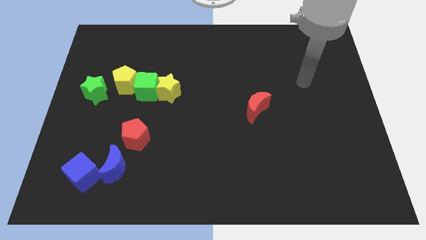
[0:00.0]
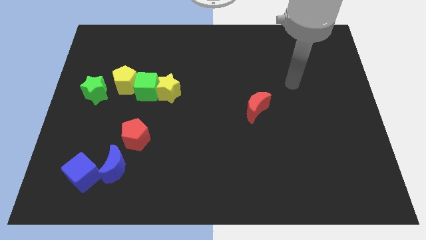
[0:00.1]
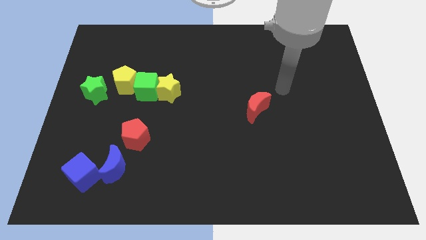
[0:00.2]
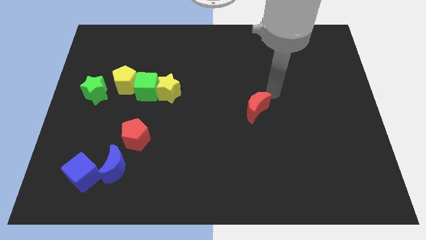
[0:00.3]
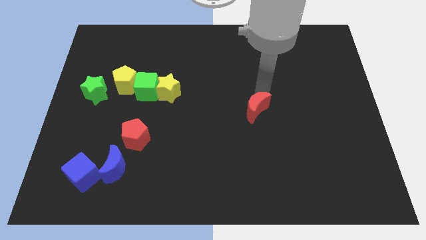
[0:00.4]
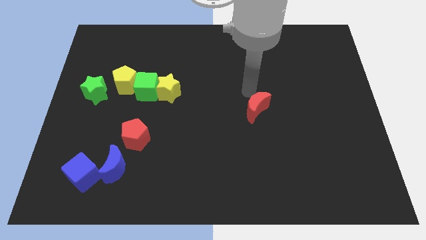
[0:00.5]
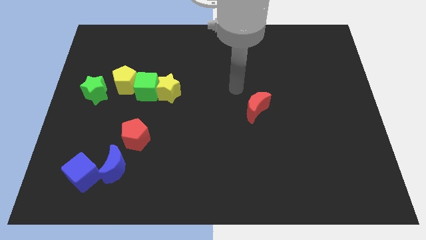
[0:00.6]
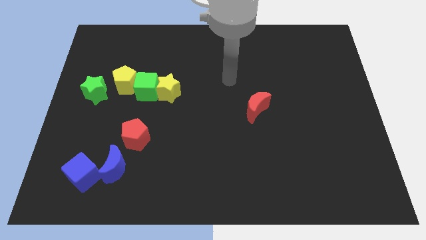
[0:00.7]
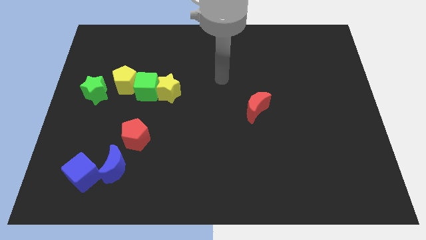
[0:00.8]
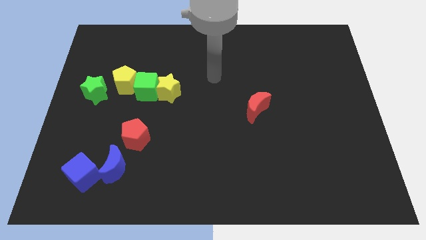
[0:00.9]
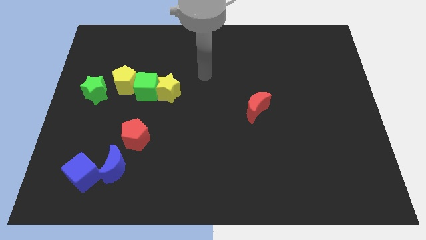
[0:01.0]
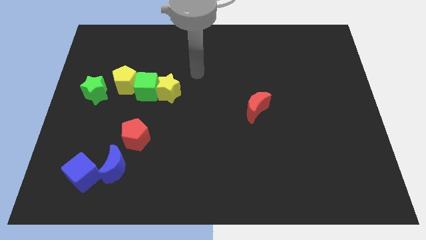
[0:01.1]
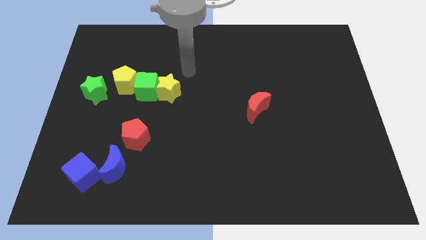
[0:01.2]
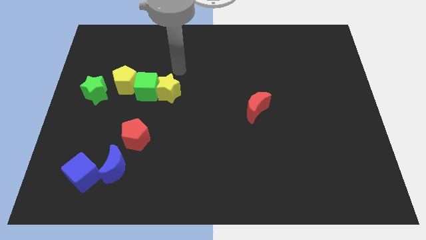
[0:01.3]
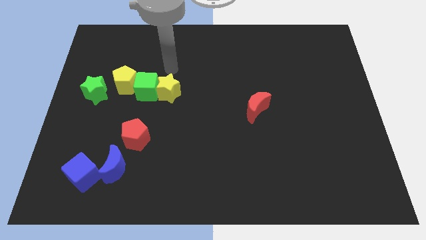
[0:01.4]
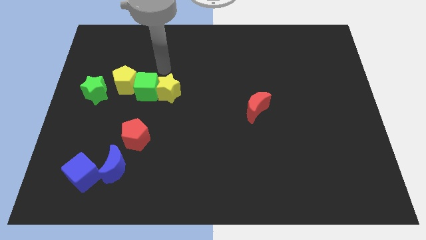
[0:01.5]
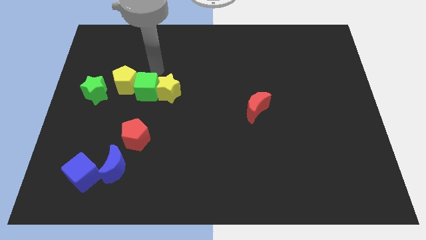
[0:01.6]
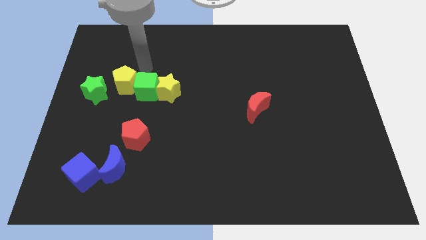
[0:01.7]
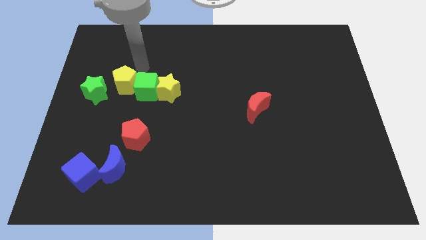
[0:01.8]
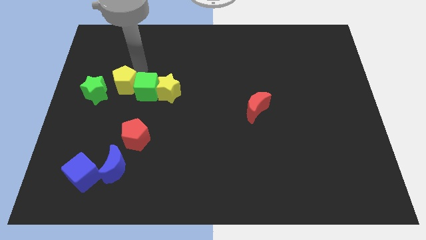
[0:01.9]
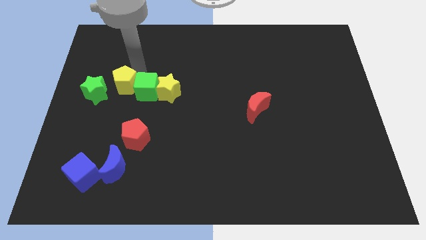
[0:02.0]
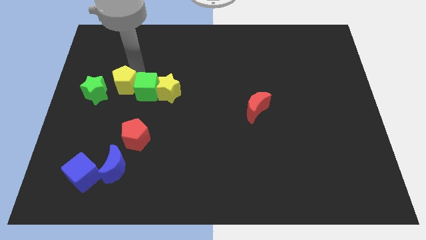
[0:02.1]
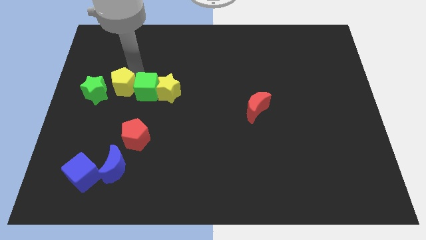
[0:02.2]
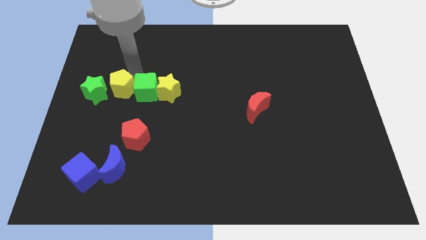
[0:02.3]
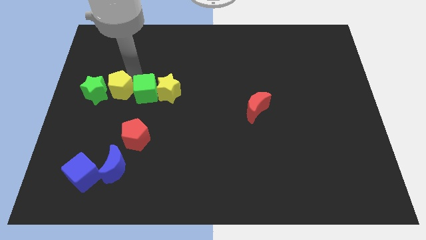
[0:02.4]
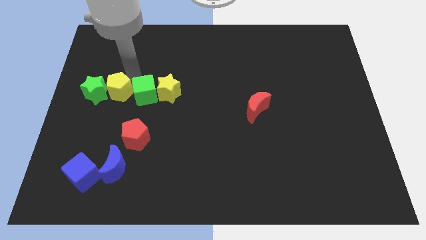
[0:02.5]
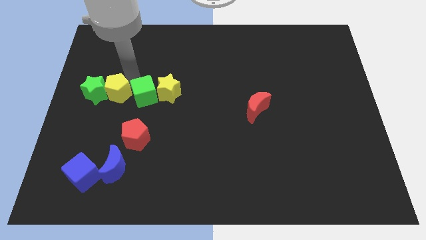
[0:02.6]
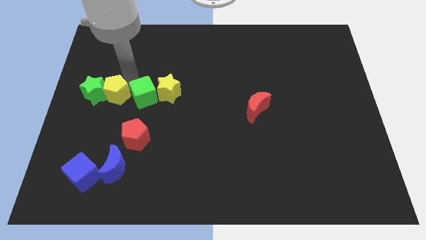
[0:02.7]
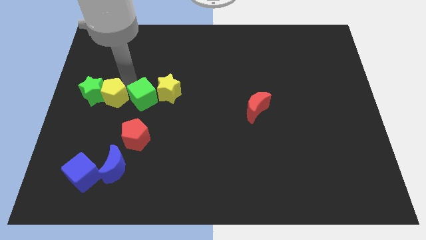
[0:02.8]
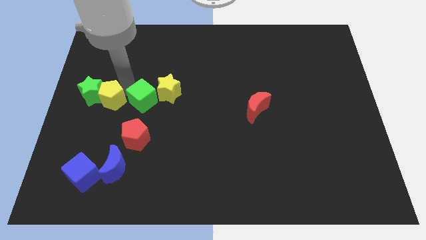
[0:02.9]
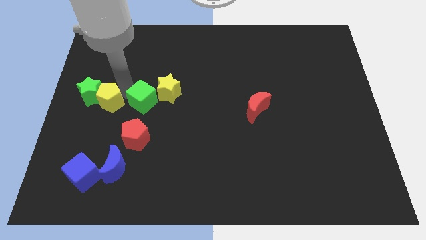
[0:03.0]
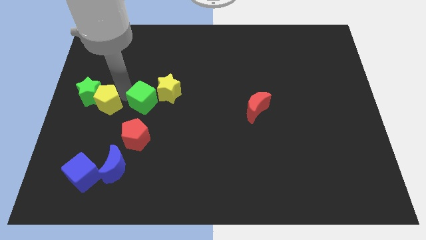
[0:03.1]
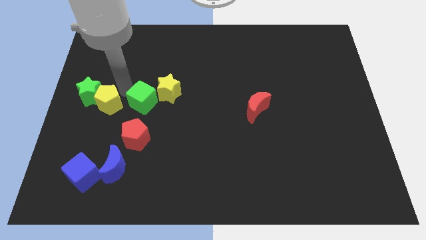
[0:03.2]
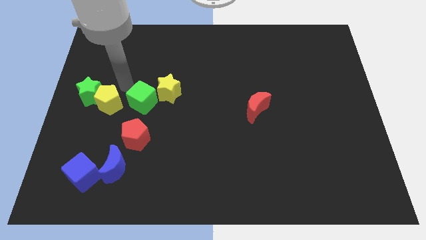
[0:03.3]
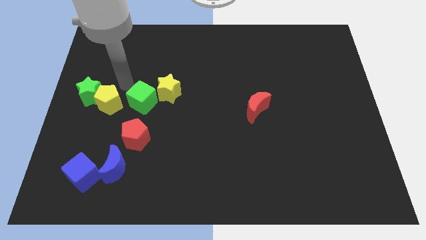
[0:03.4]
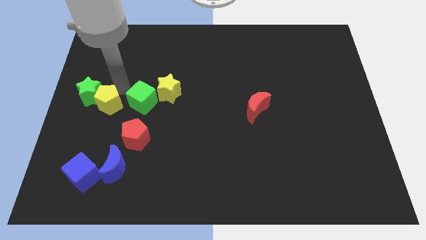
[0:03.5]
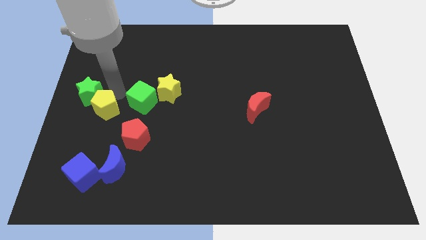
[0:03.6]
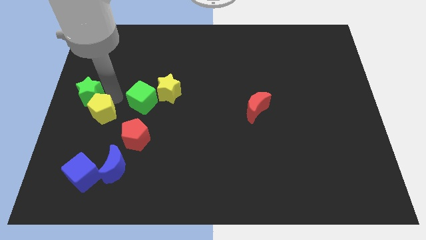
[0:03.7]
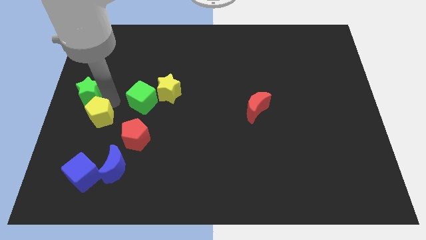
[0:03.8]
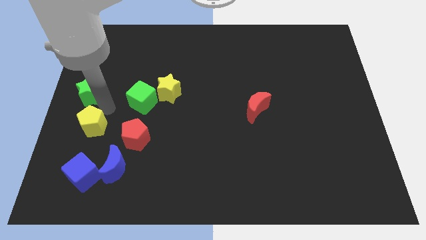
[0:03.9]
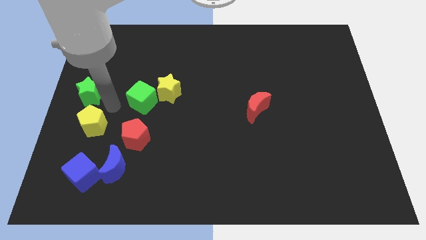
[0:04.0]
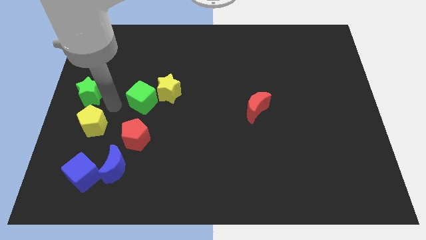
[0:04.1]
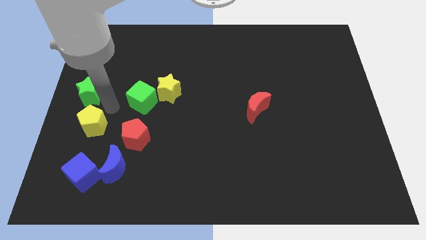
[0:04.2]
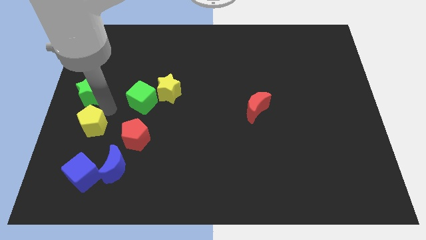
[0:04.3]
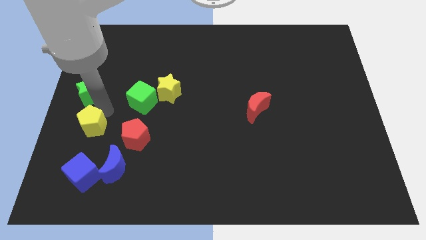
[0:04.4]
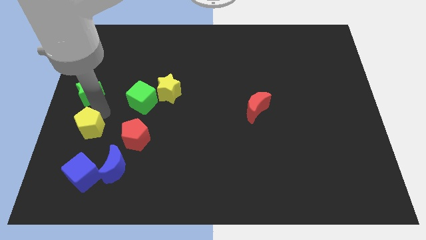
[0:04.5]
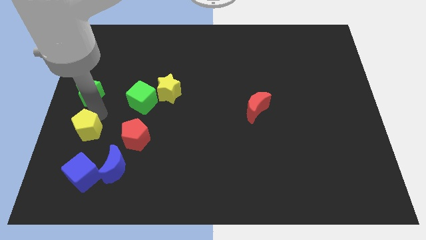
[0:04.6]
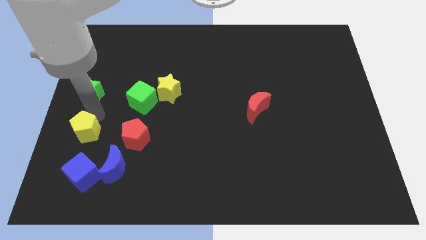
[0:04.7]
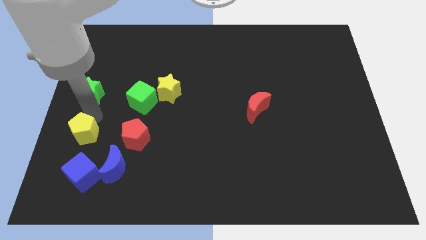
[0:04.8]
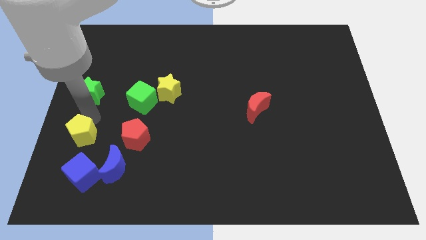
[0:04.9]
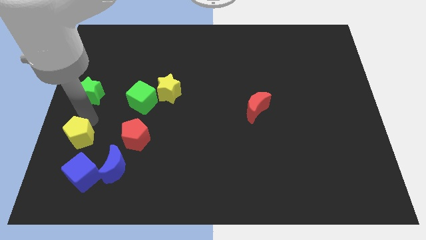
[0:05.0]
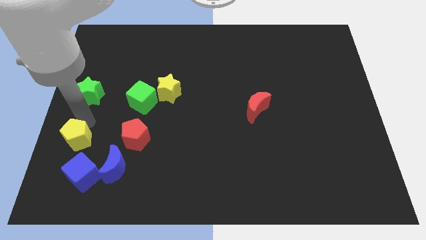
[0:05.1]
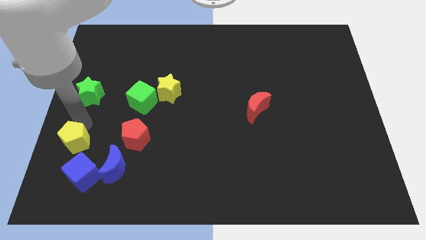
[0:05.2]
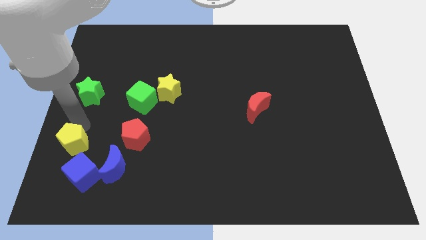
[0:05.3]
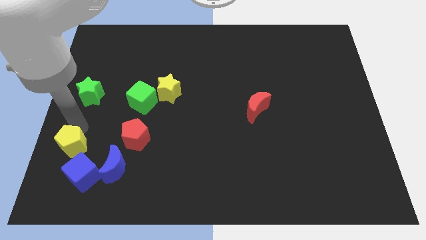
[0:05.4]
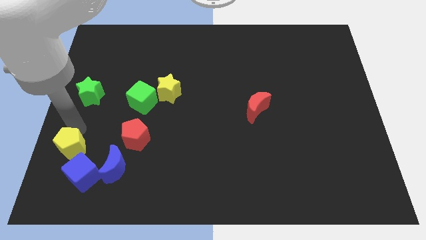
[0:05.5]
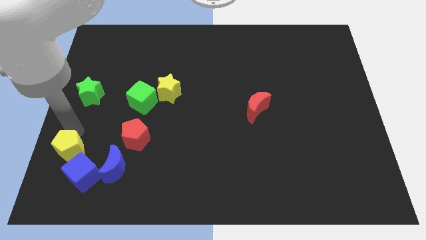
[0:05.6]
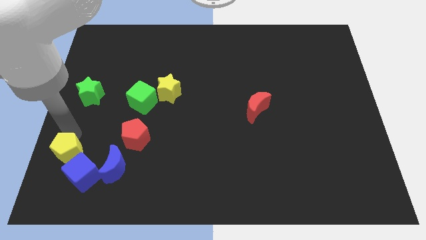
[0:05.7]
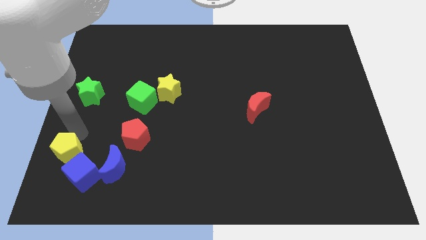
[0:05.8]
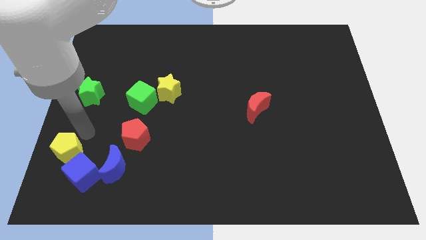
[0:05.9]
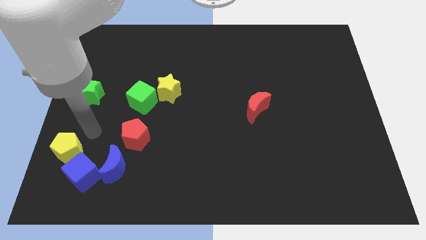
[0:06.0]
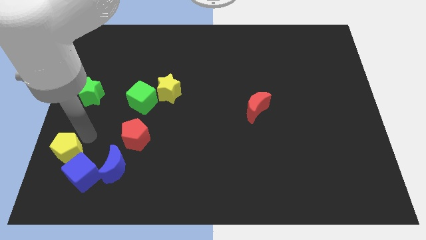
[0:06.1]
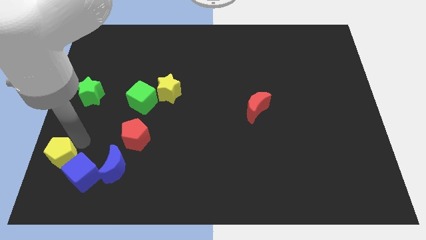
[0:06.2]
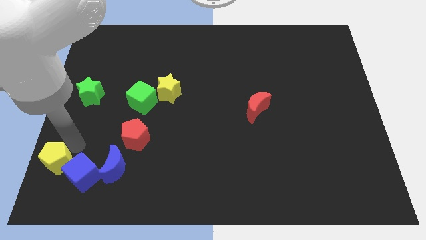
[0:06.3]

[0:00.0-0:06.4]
move the yellow pentagon to the bottom left
